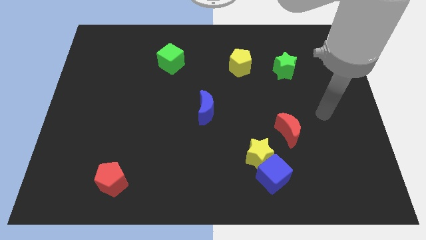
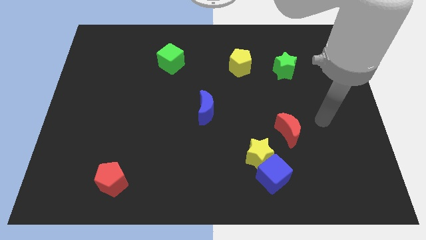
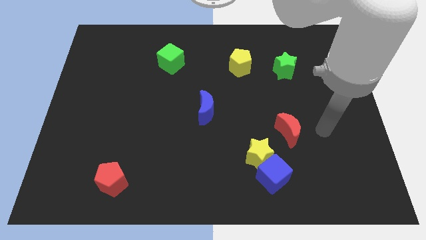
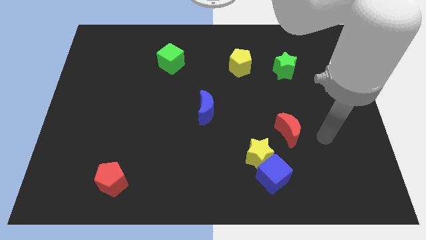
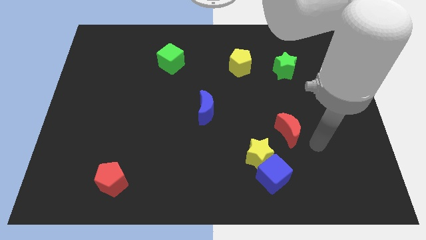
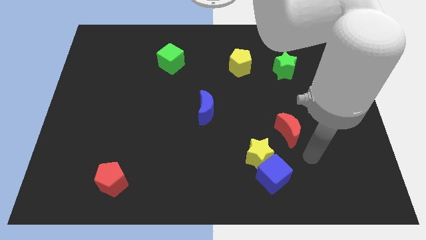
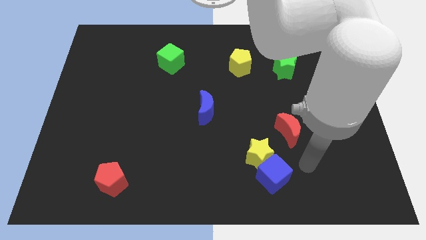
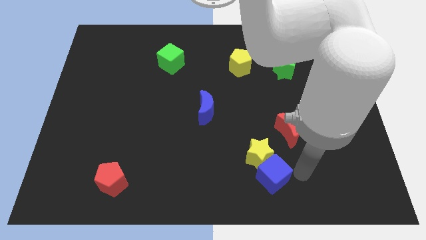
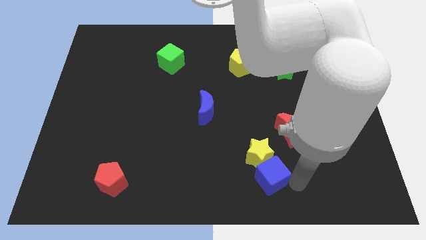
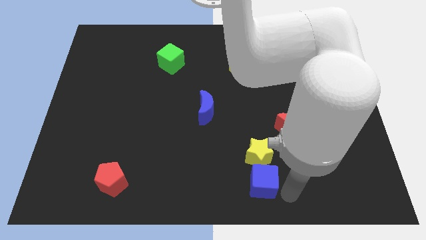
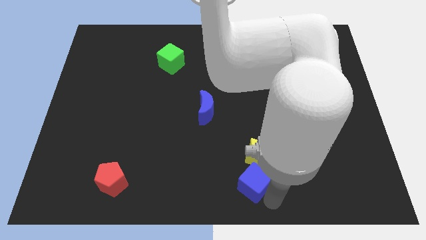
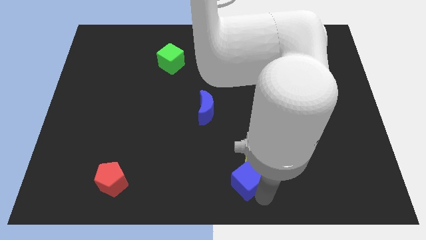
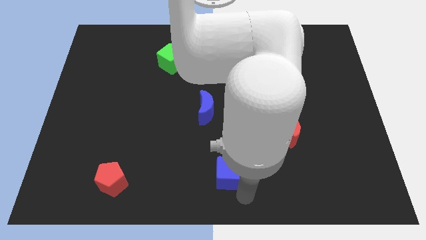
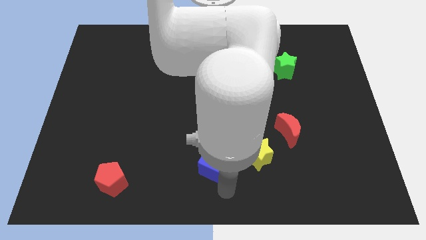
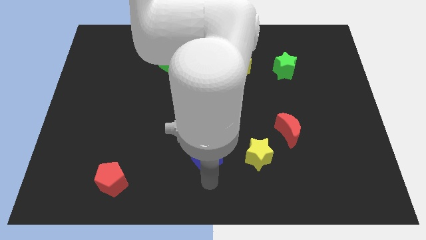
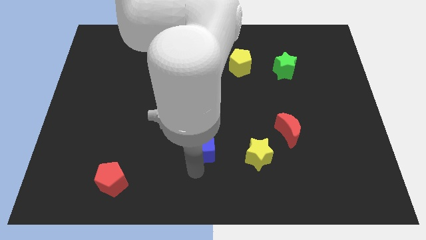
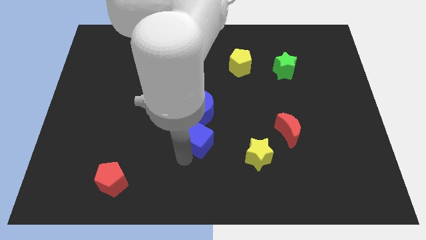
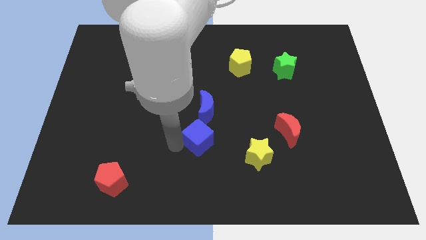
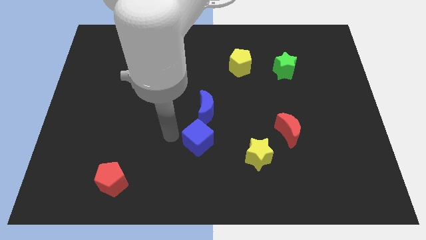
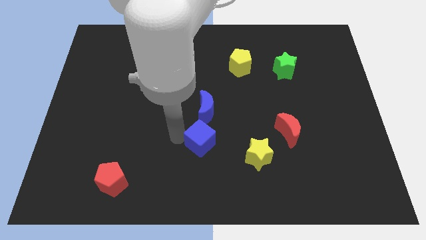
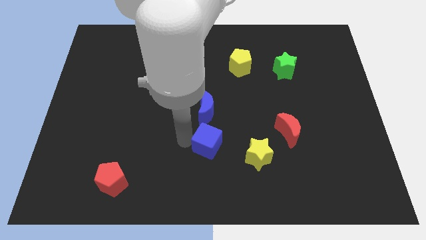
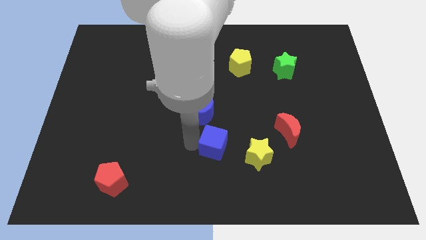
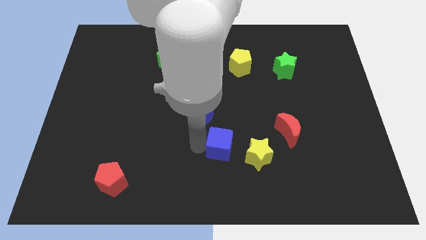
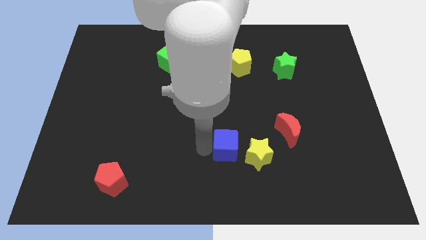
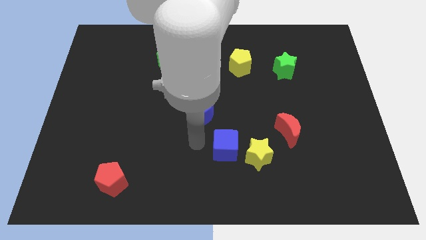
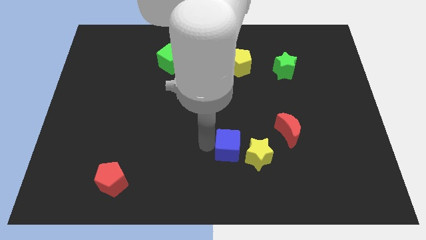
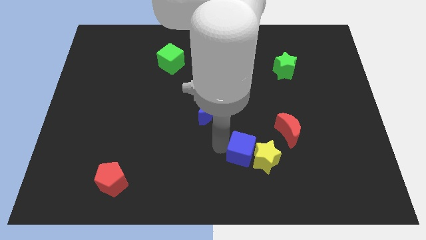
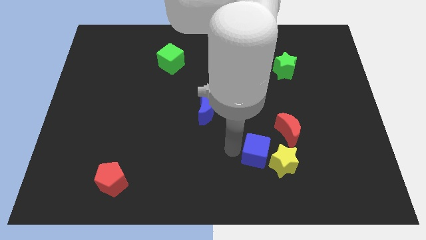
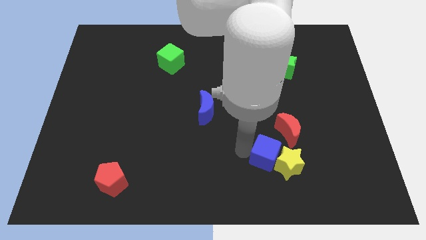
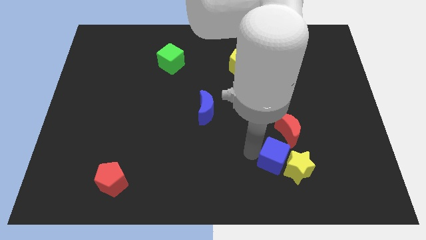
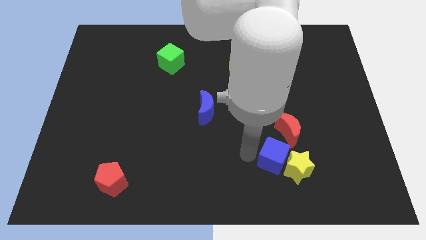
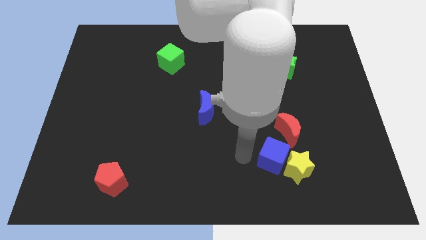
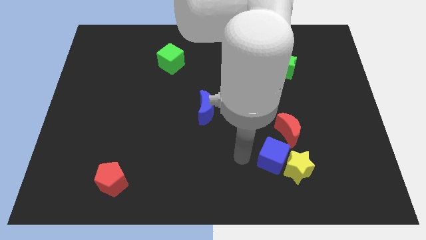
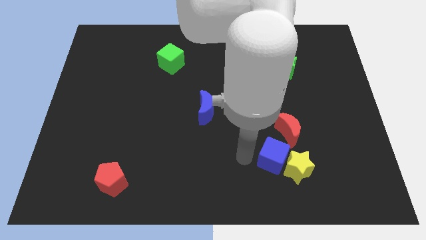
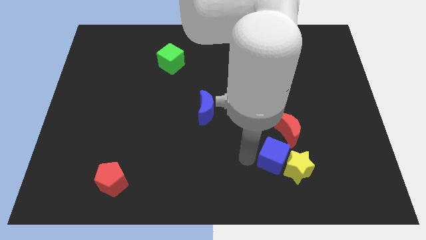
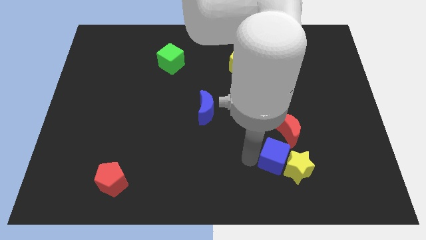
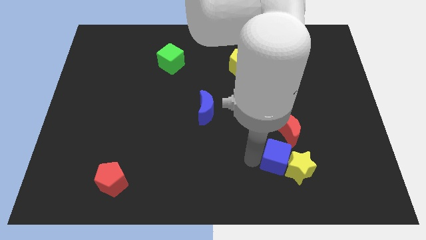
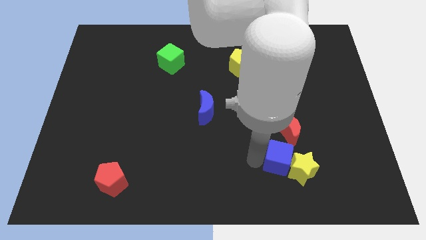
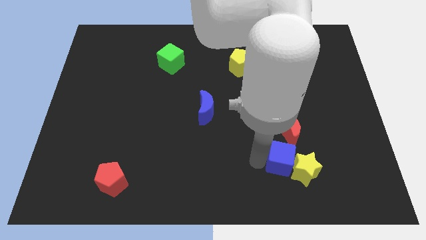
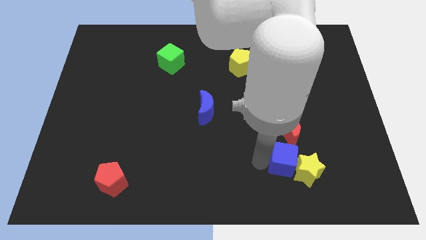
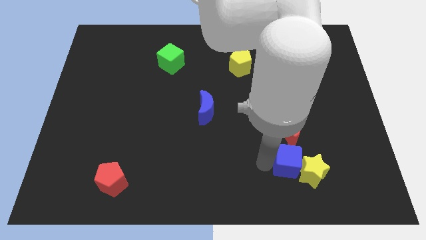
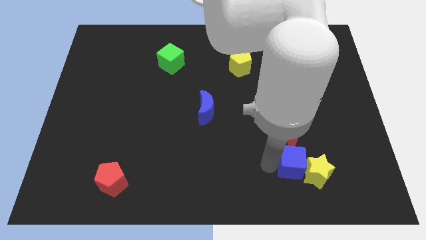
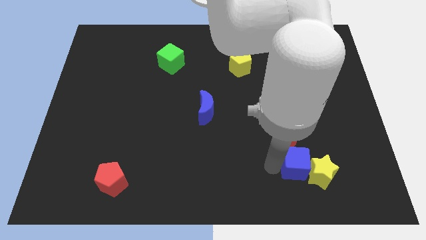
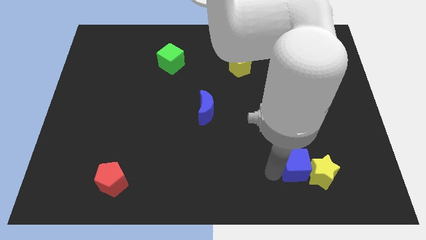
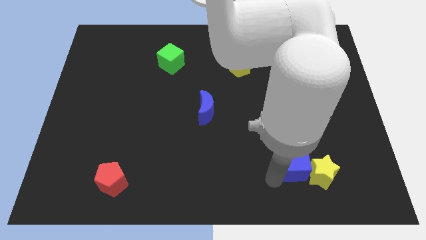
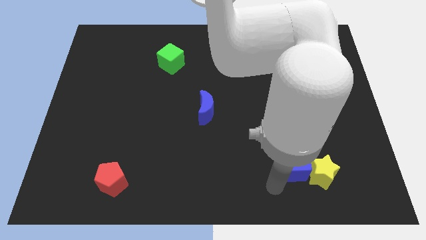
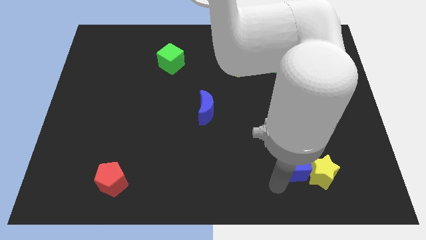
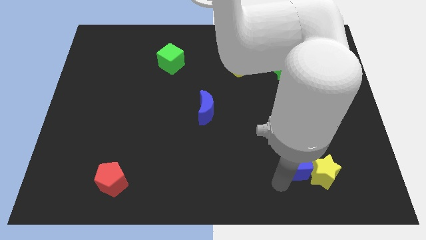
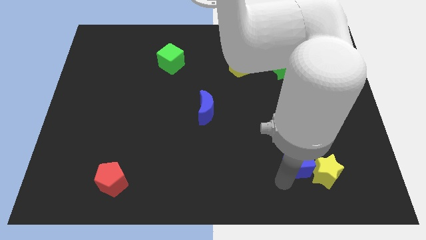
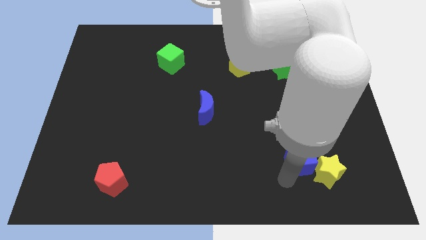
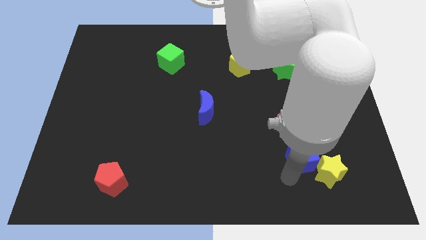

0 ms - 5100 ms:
slightly slide the blue cube up and to the right

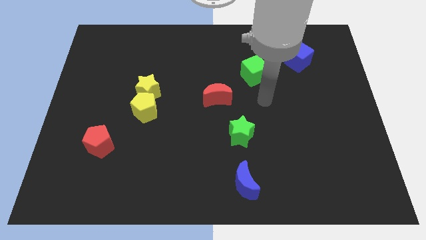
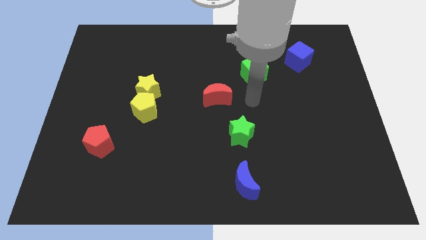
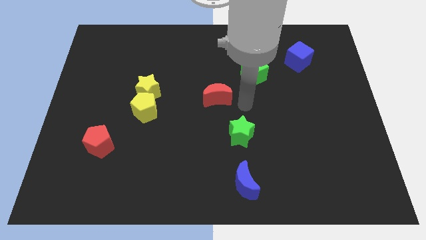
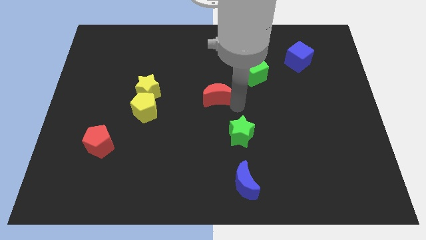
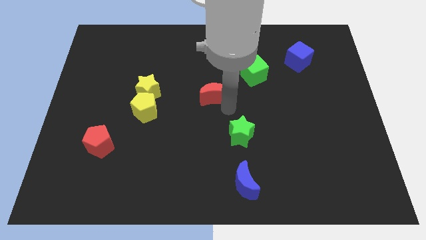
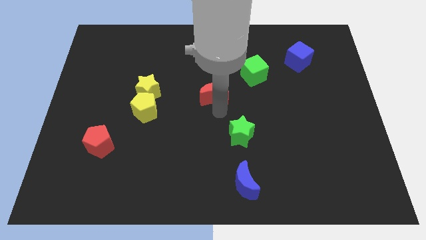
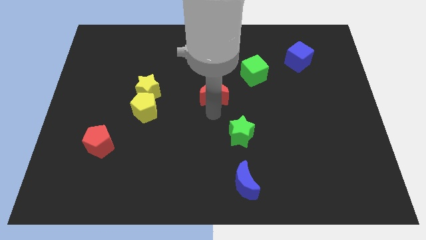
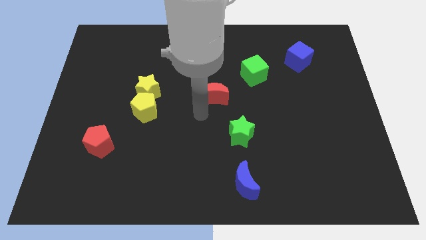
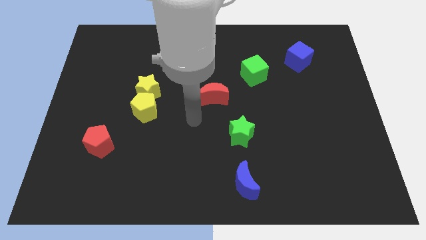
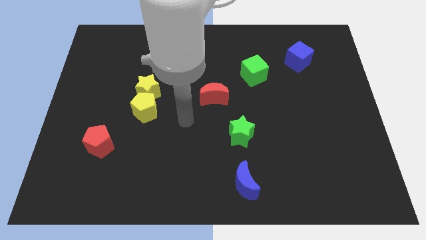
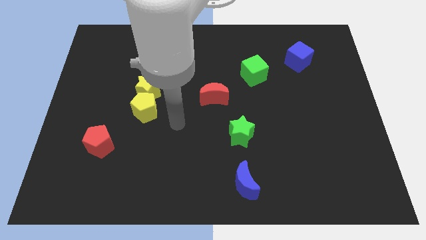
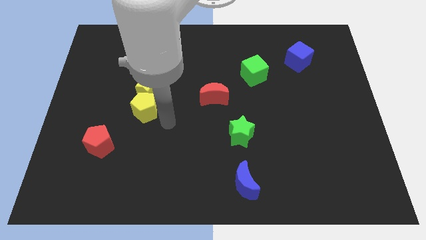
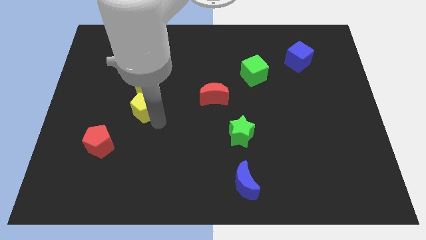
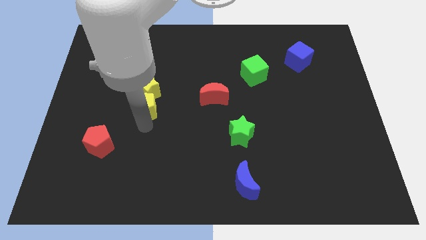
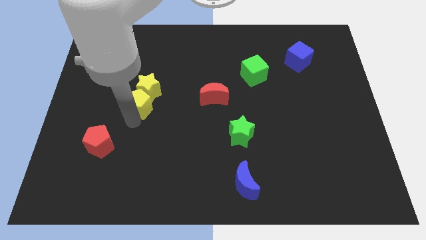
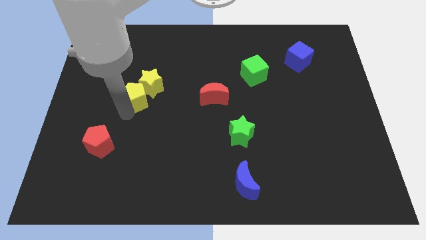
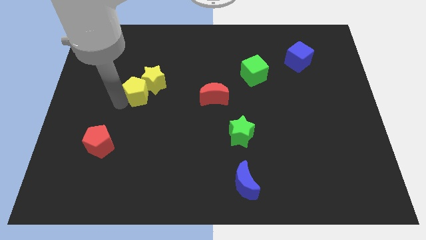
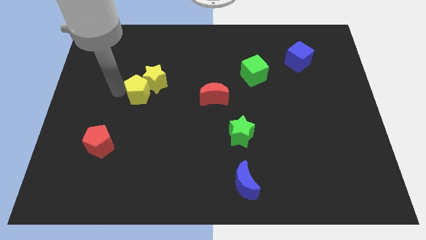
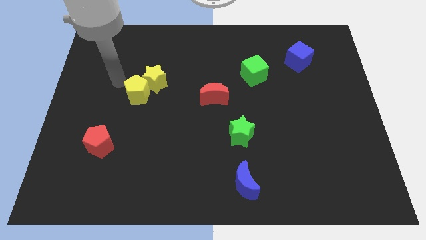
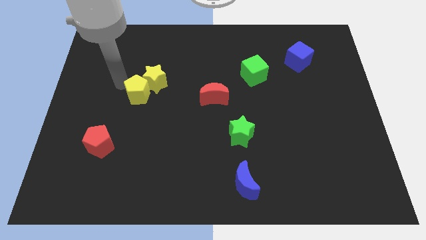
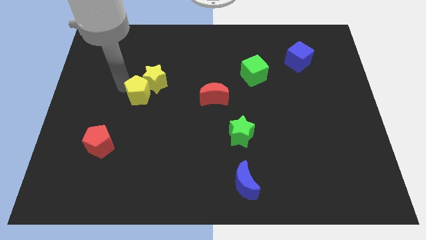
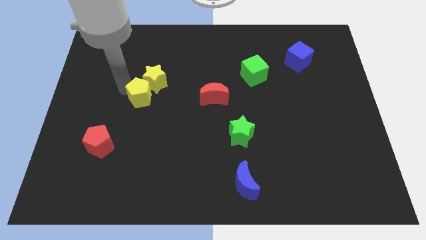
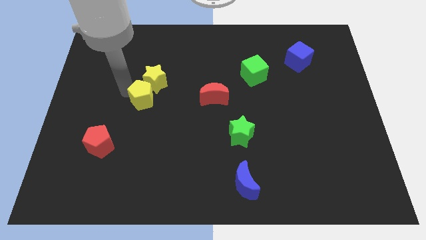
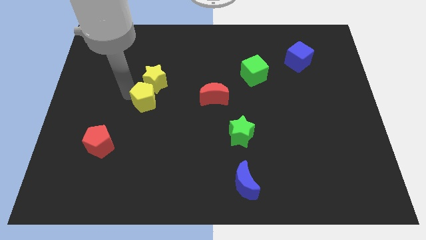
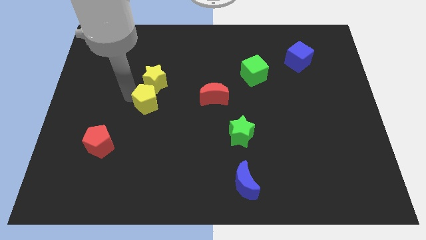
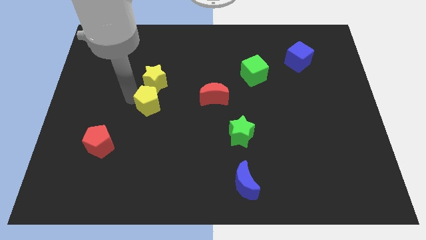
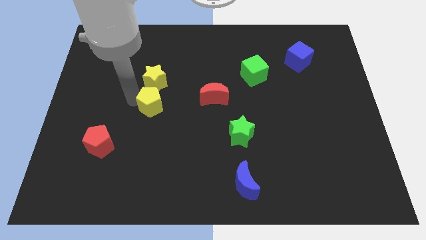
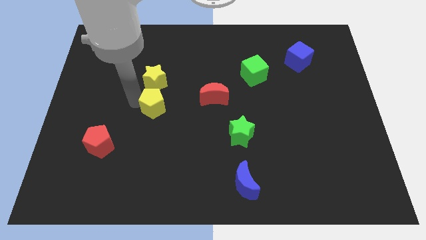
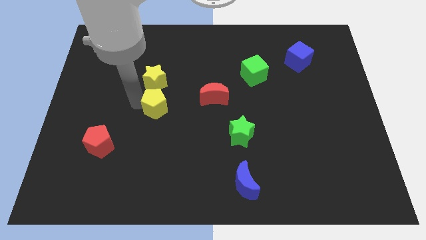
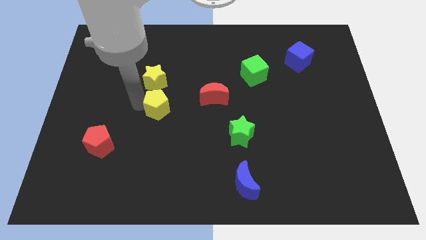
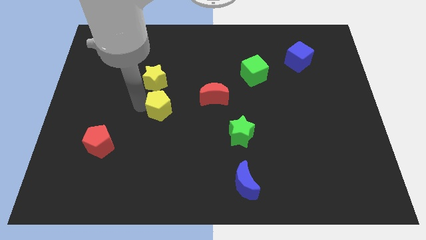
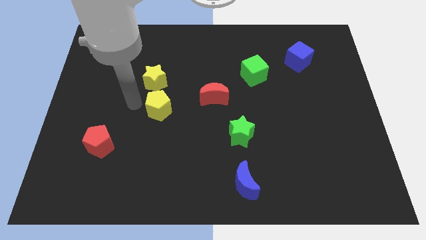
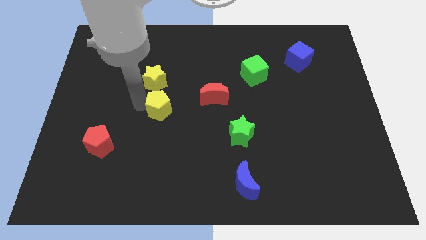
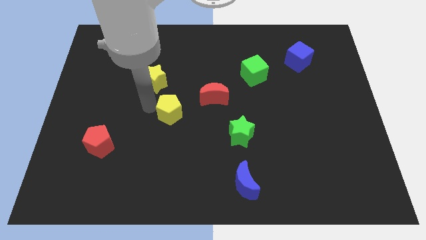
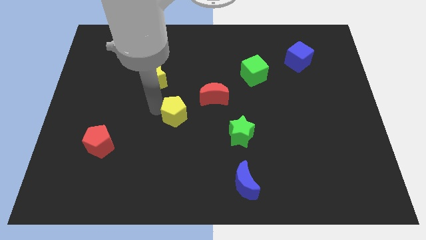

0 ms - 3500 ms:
slide the yellow pentagon a bit to the right
